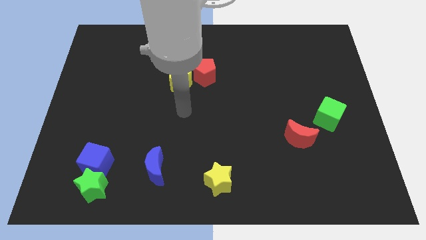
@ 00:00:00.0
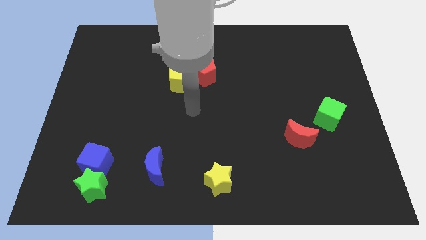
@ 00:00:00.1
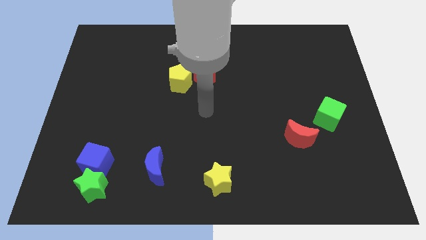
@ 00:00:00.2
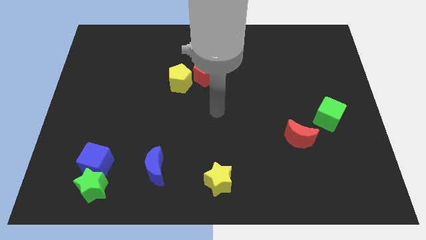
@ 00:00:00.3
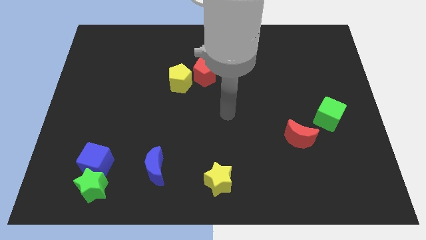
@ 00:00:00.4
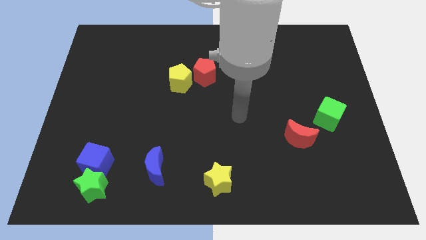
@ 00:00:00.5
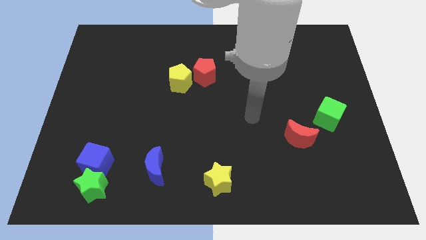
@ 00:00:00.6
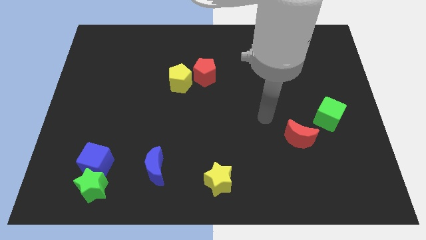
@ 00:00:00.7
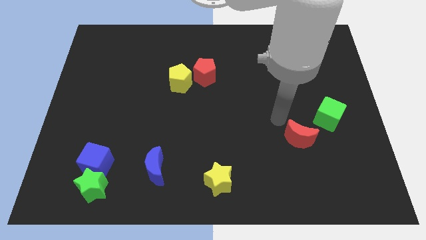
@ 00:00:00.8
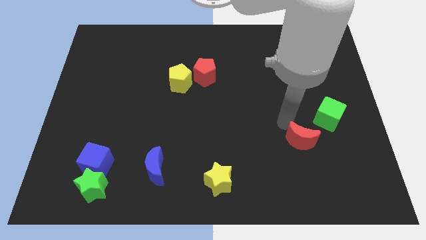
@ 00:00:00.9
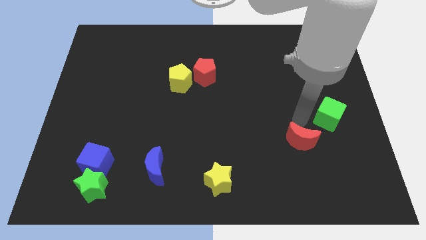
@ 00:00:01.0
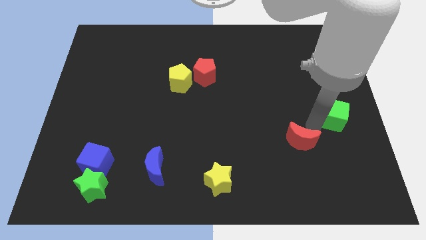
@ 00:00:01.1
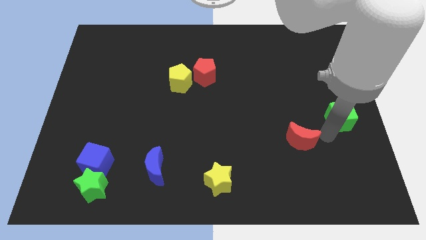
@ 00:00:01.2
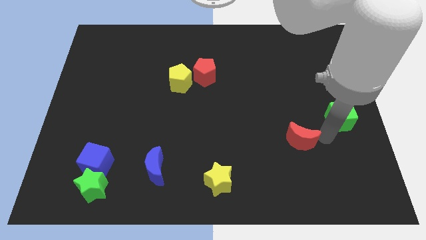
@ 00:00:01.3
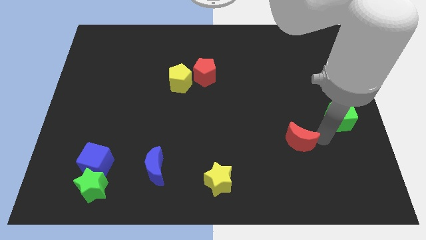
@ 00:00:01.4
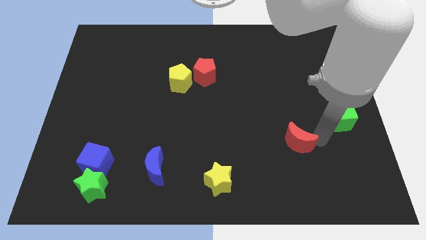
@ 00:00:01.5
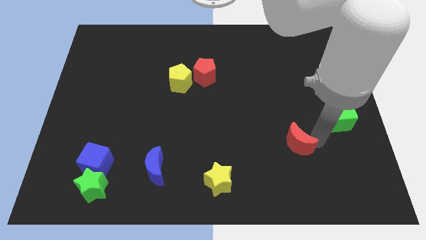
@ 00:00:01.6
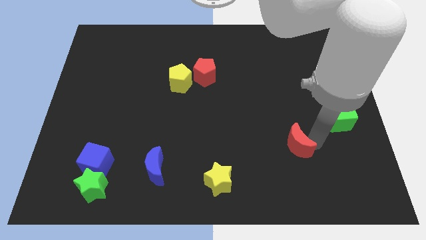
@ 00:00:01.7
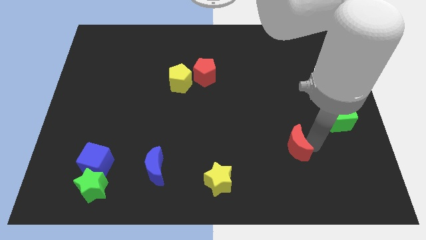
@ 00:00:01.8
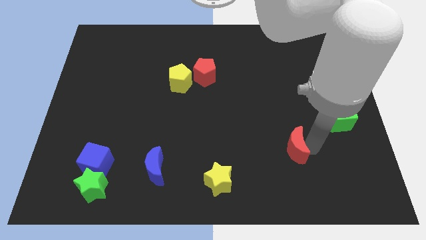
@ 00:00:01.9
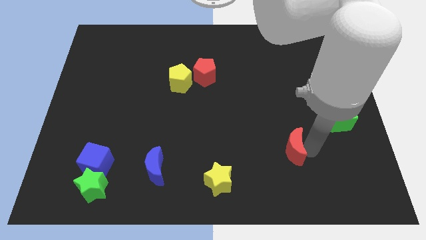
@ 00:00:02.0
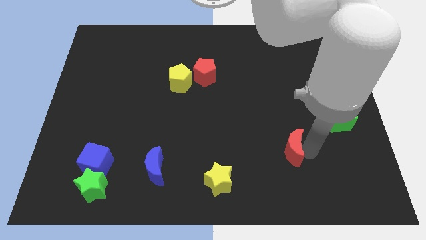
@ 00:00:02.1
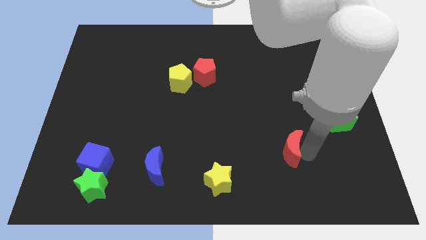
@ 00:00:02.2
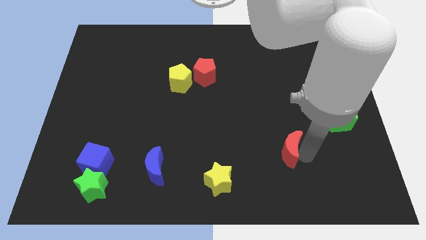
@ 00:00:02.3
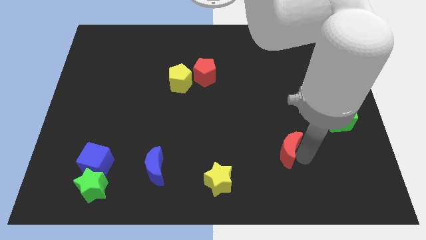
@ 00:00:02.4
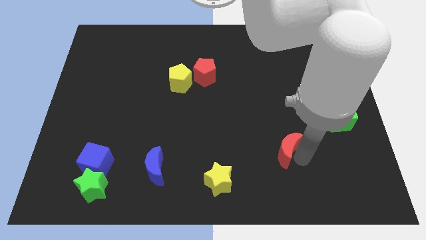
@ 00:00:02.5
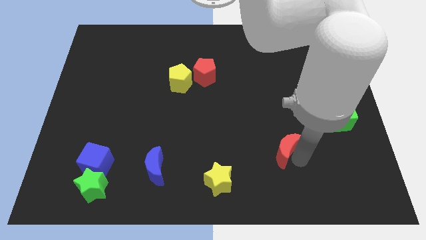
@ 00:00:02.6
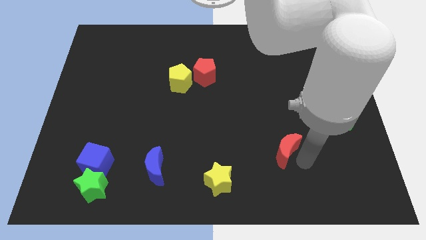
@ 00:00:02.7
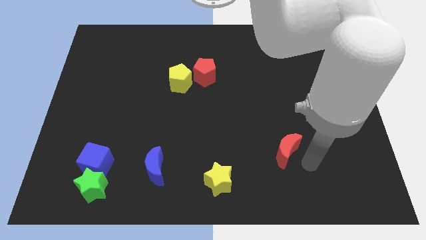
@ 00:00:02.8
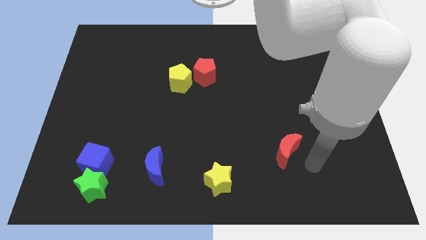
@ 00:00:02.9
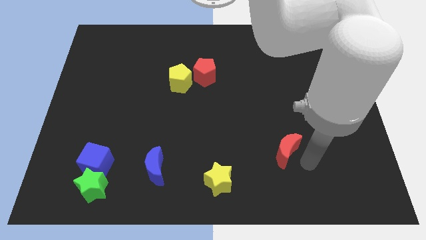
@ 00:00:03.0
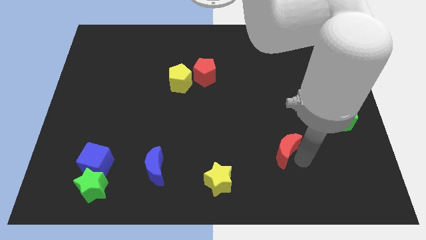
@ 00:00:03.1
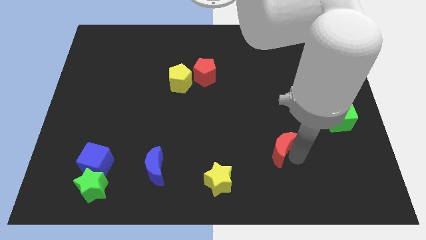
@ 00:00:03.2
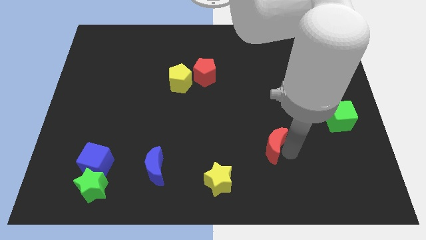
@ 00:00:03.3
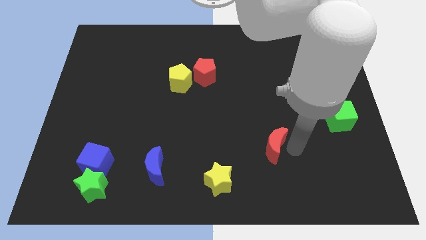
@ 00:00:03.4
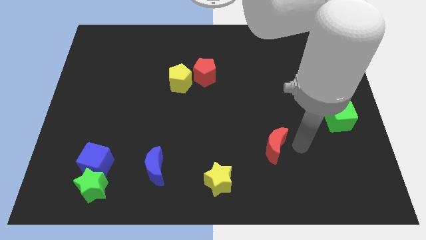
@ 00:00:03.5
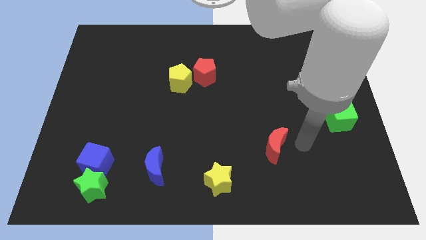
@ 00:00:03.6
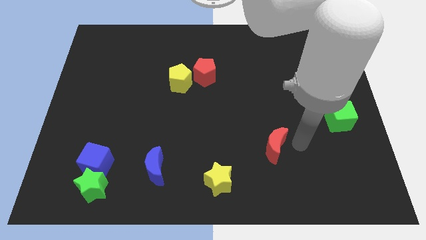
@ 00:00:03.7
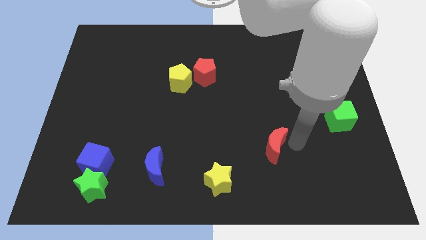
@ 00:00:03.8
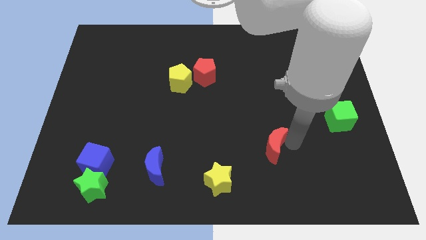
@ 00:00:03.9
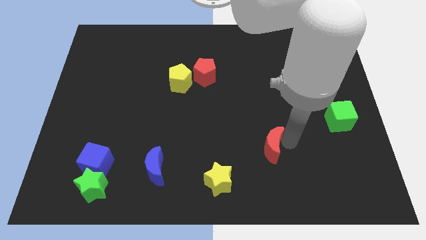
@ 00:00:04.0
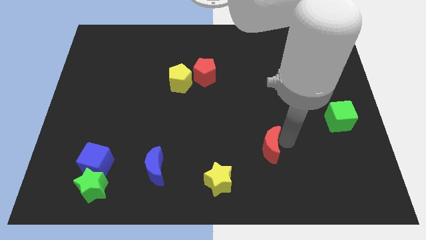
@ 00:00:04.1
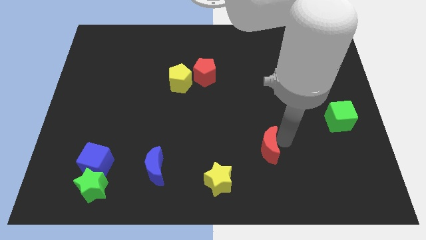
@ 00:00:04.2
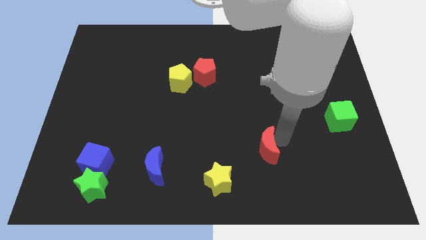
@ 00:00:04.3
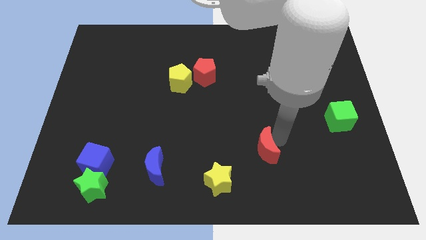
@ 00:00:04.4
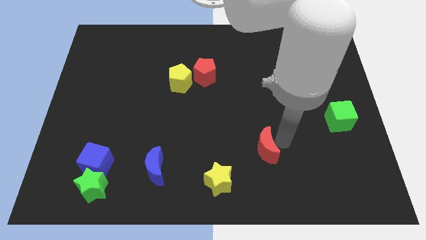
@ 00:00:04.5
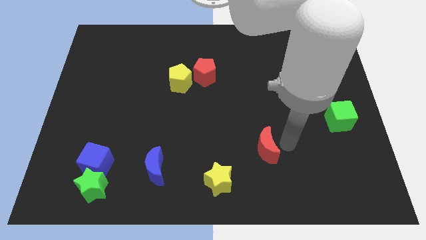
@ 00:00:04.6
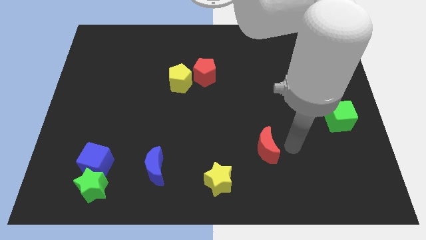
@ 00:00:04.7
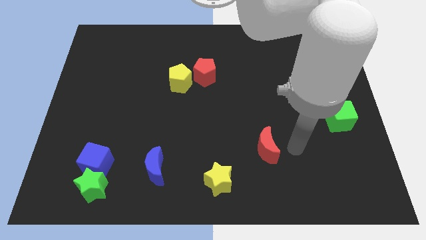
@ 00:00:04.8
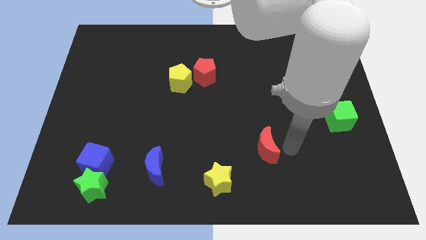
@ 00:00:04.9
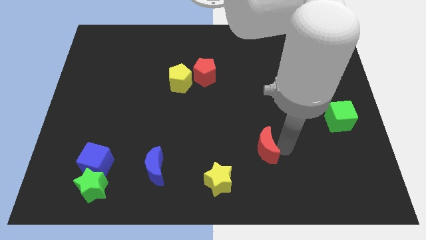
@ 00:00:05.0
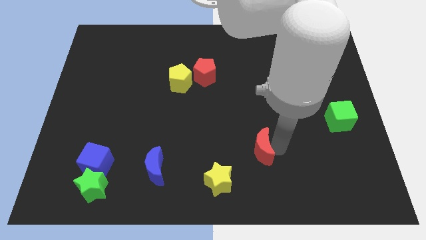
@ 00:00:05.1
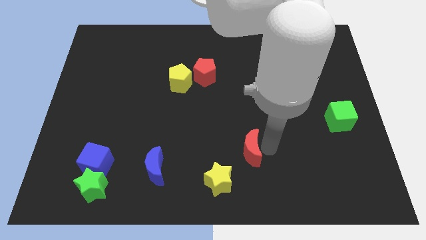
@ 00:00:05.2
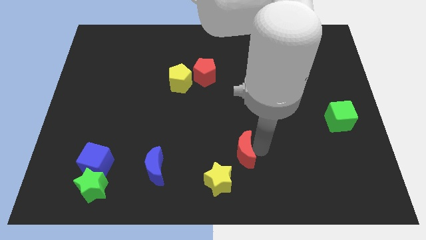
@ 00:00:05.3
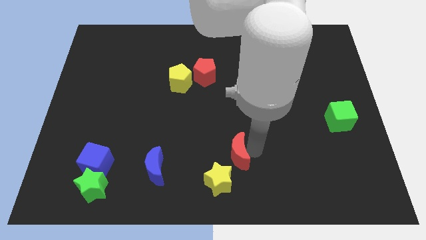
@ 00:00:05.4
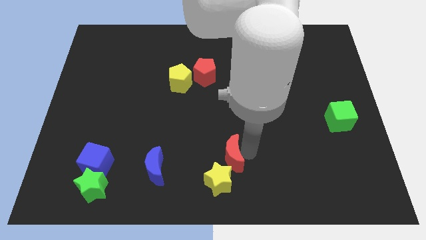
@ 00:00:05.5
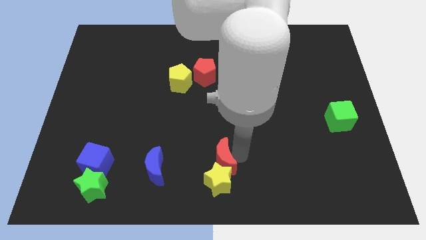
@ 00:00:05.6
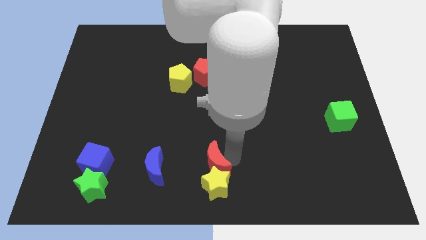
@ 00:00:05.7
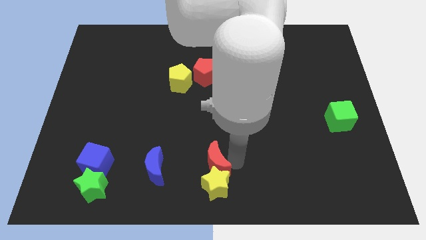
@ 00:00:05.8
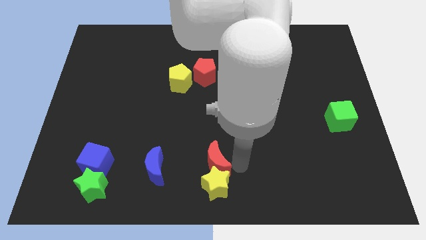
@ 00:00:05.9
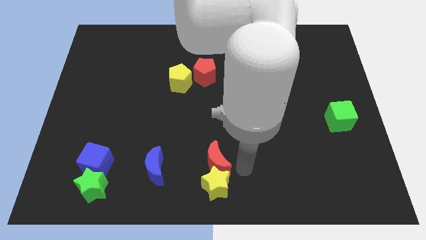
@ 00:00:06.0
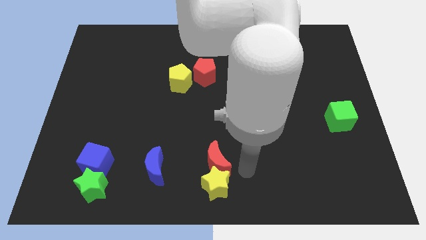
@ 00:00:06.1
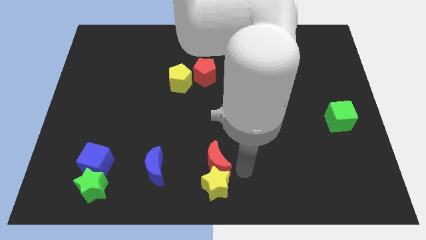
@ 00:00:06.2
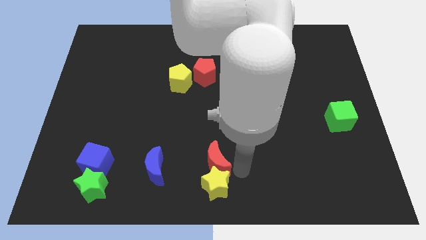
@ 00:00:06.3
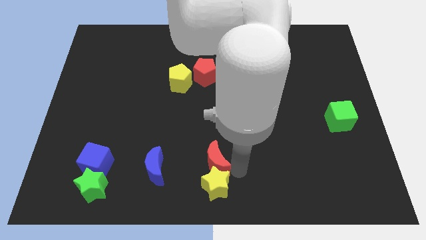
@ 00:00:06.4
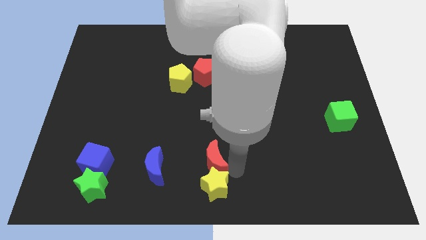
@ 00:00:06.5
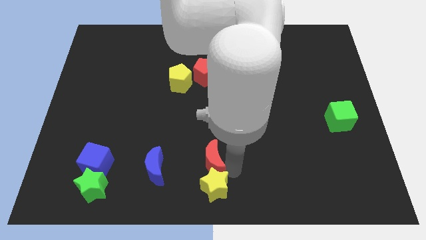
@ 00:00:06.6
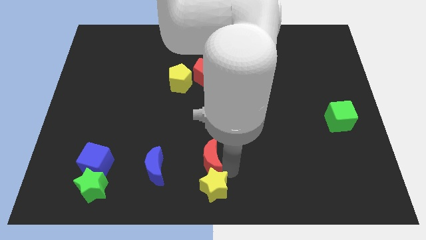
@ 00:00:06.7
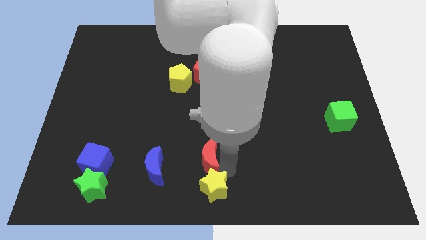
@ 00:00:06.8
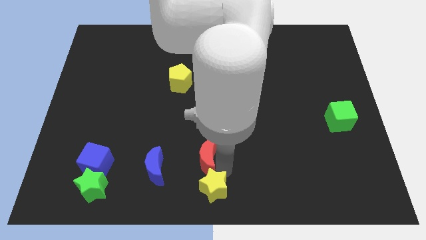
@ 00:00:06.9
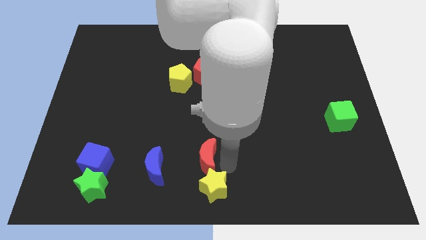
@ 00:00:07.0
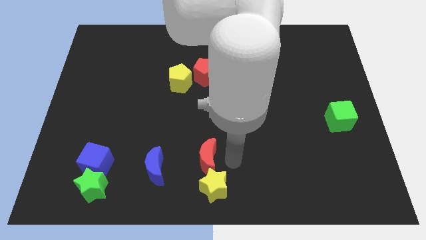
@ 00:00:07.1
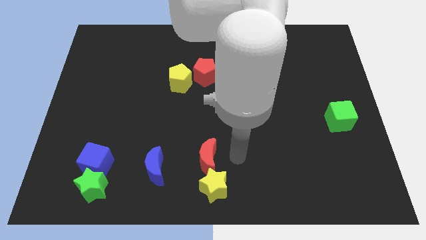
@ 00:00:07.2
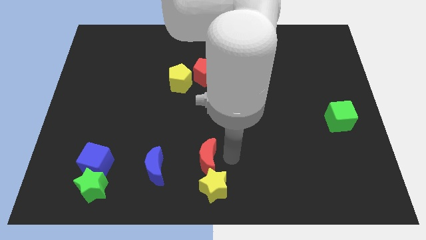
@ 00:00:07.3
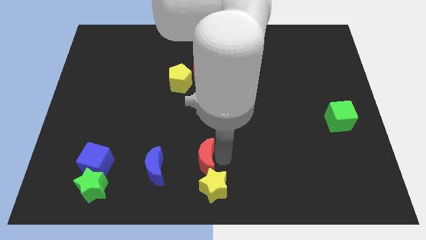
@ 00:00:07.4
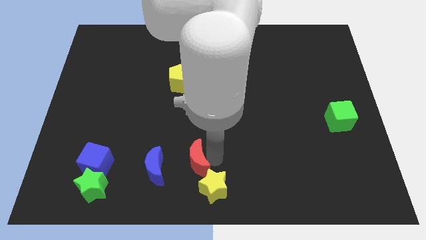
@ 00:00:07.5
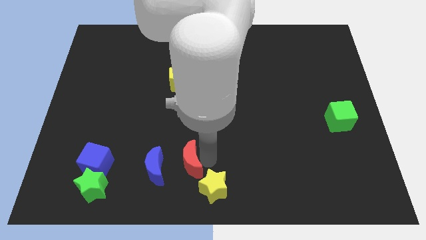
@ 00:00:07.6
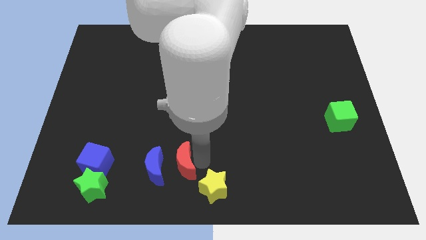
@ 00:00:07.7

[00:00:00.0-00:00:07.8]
move the red moon towards the blue moon
